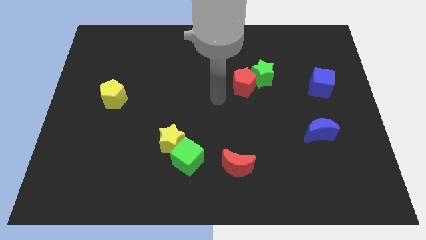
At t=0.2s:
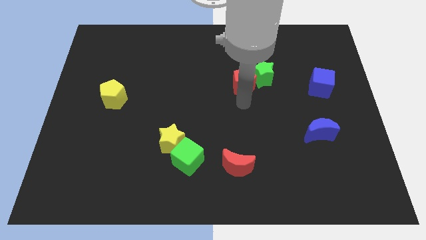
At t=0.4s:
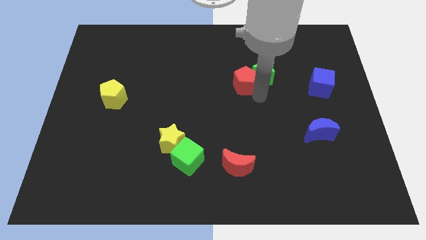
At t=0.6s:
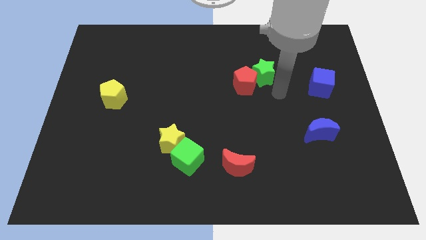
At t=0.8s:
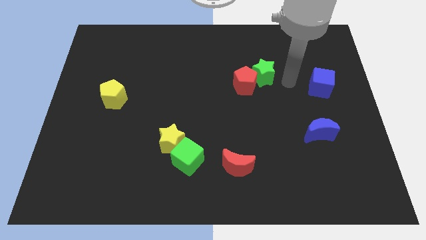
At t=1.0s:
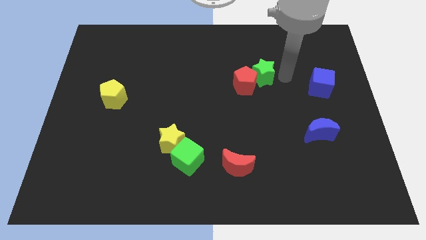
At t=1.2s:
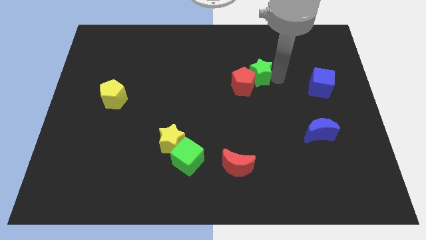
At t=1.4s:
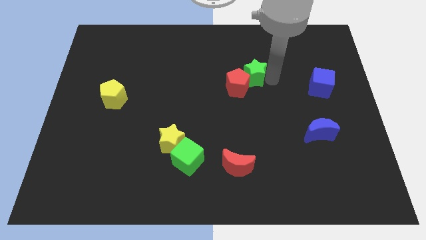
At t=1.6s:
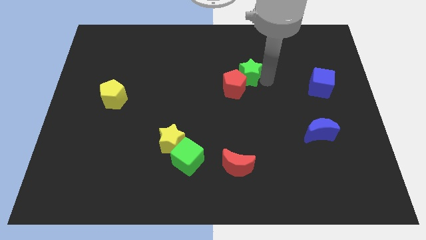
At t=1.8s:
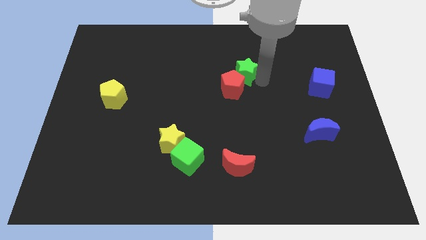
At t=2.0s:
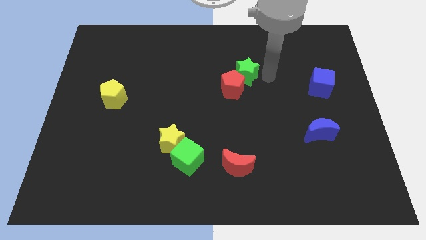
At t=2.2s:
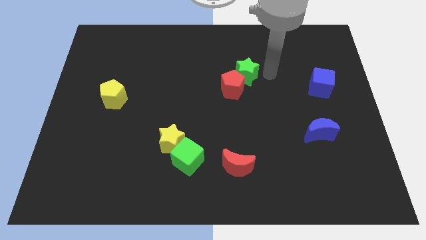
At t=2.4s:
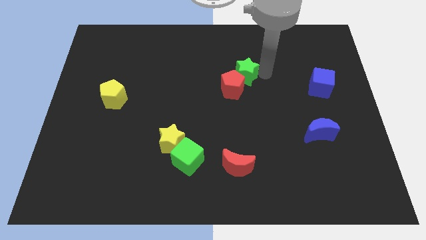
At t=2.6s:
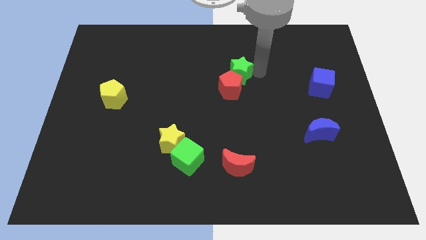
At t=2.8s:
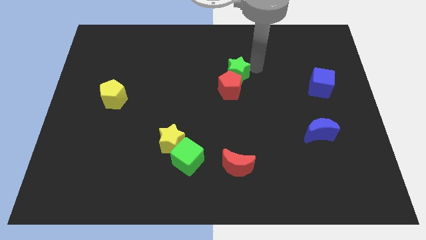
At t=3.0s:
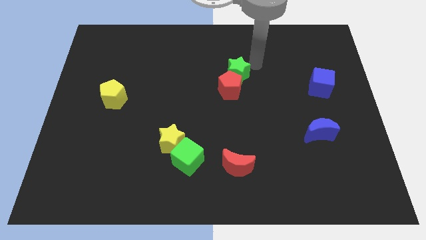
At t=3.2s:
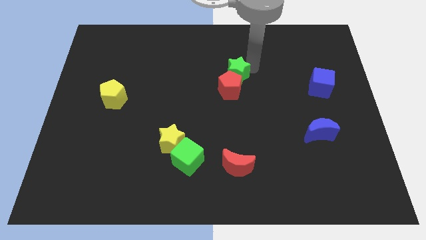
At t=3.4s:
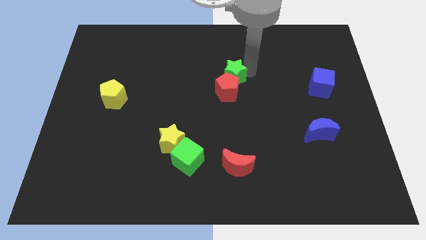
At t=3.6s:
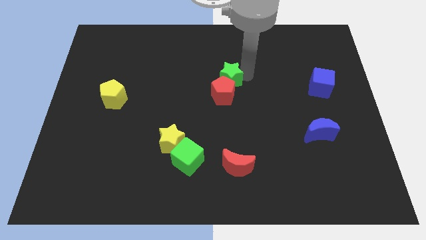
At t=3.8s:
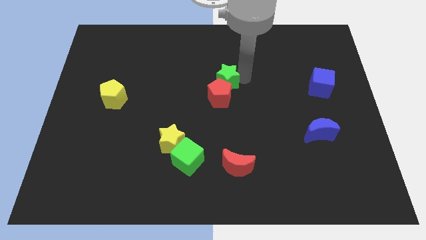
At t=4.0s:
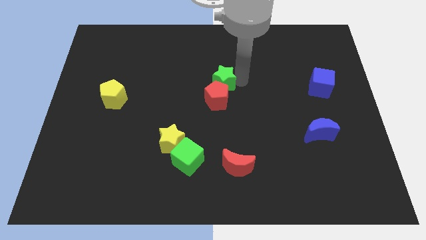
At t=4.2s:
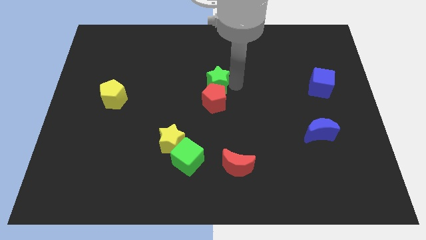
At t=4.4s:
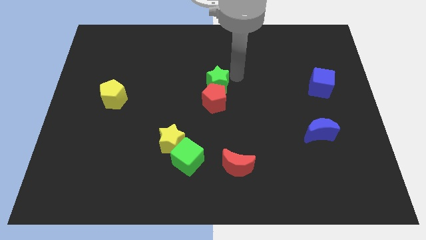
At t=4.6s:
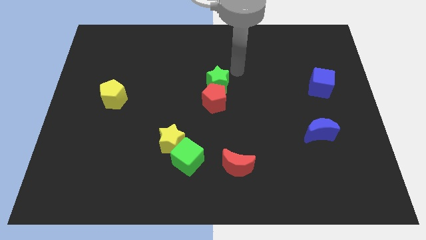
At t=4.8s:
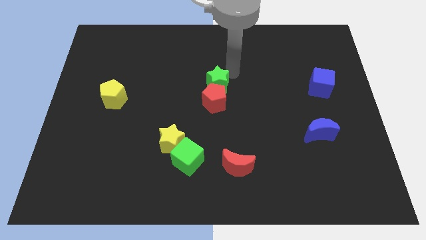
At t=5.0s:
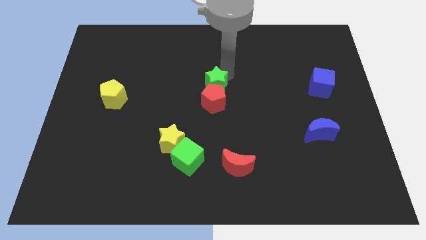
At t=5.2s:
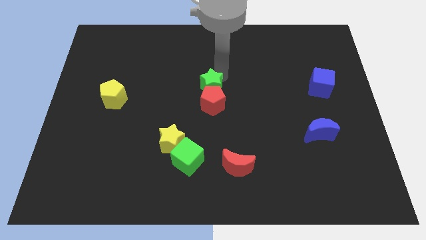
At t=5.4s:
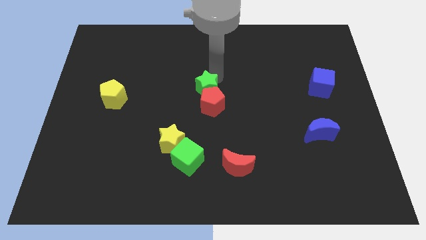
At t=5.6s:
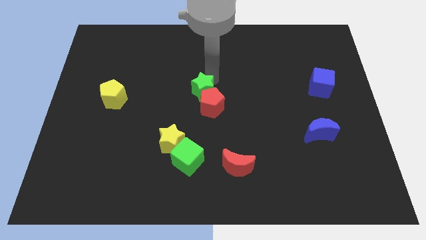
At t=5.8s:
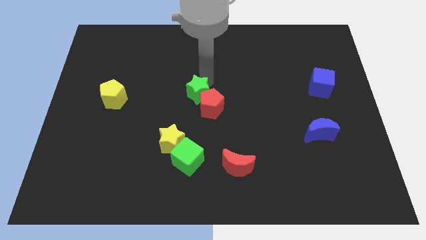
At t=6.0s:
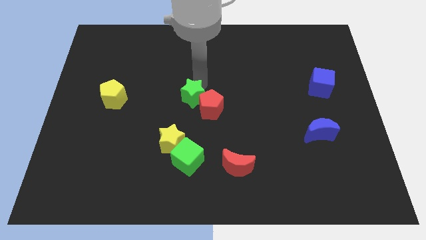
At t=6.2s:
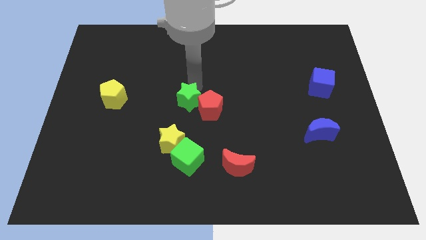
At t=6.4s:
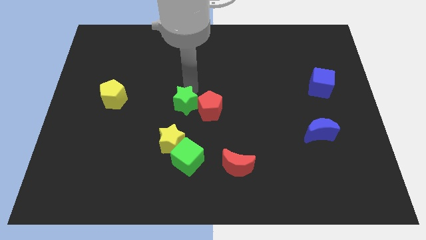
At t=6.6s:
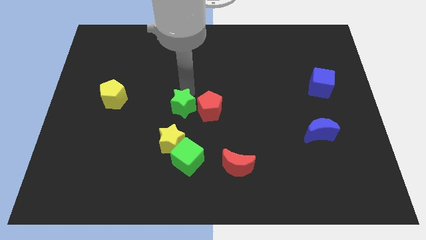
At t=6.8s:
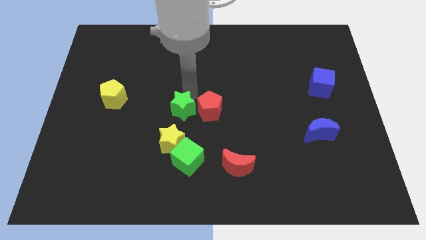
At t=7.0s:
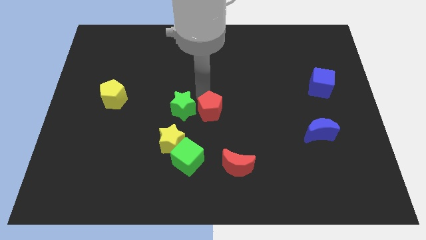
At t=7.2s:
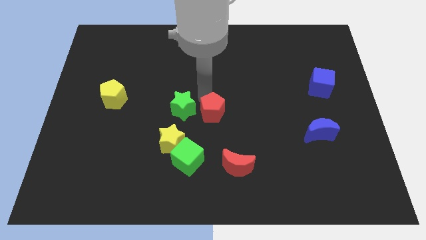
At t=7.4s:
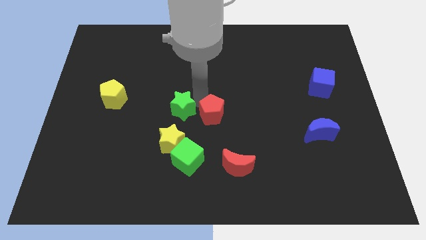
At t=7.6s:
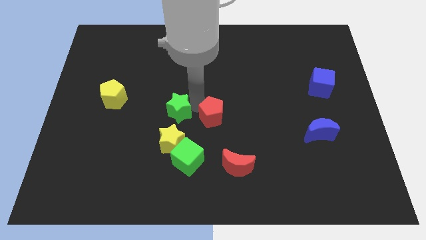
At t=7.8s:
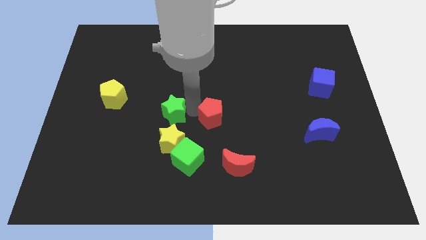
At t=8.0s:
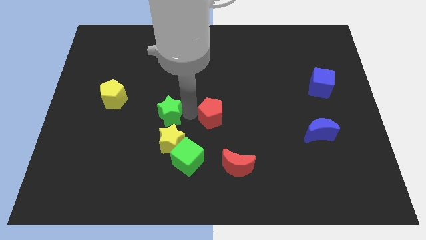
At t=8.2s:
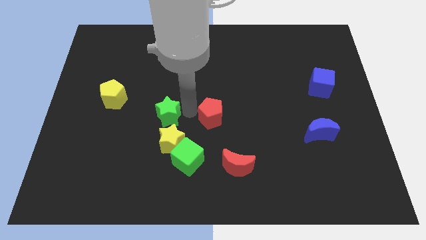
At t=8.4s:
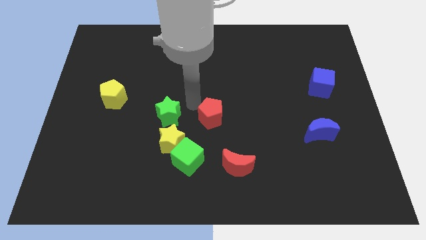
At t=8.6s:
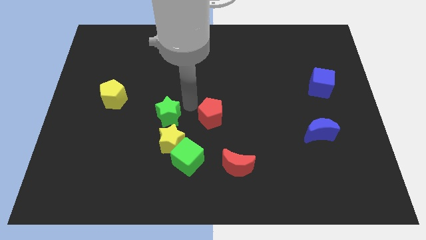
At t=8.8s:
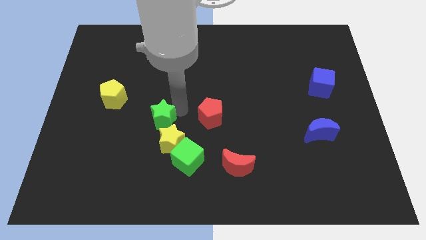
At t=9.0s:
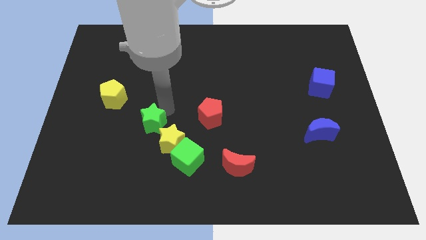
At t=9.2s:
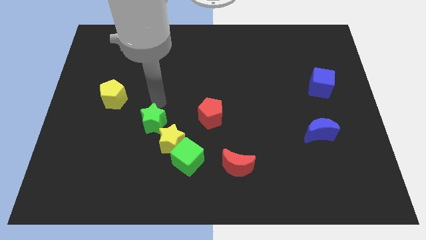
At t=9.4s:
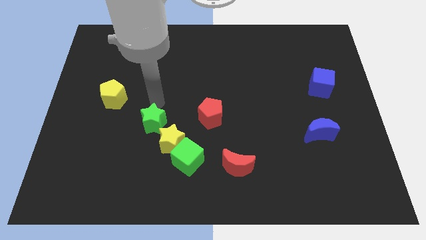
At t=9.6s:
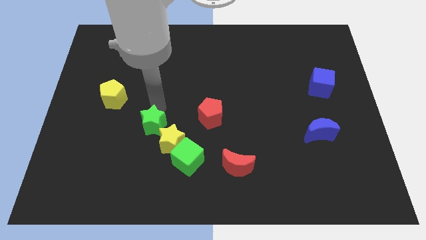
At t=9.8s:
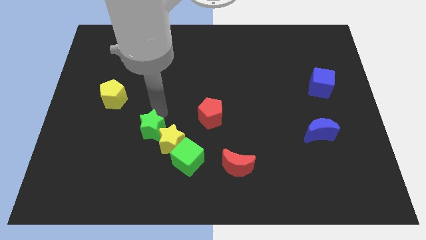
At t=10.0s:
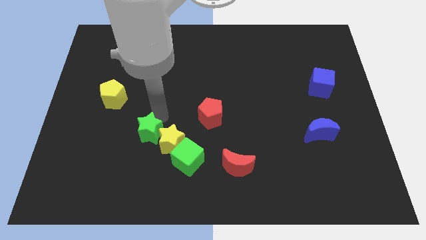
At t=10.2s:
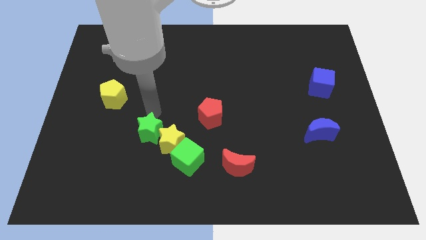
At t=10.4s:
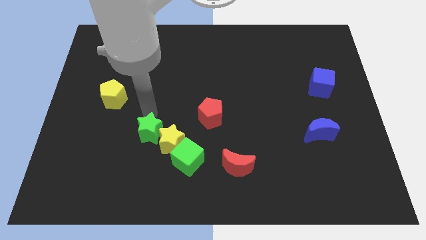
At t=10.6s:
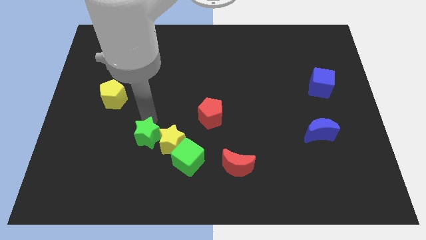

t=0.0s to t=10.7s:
slide the green star to the bottom left side of the yellow star

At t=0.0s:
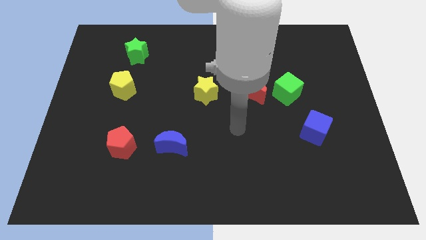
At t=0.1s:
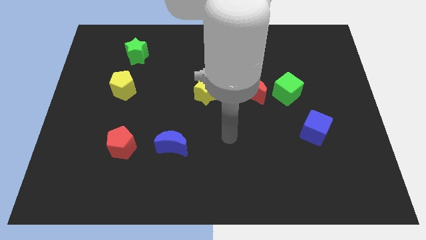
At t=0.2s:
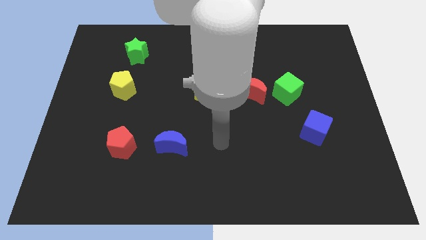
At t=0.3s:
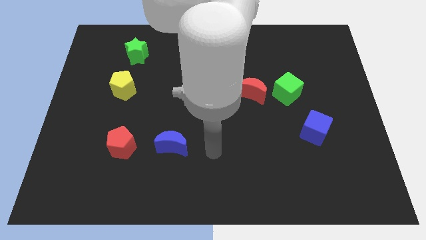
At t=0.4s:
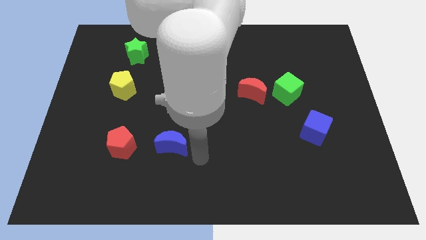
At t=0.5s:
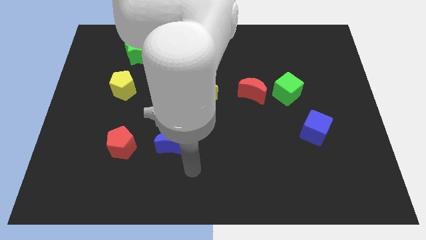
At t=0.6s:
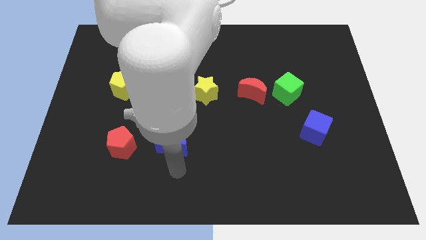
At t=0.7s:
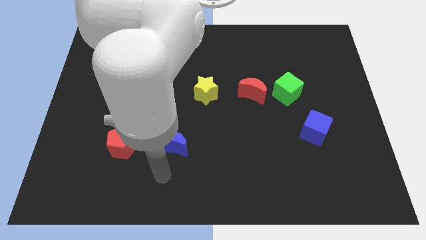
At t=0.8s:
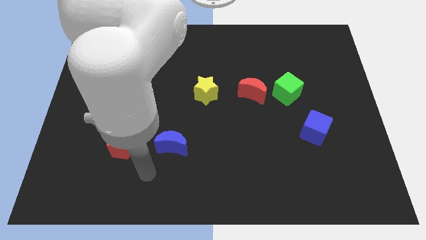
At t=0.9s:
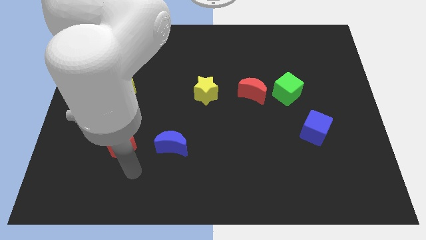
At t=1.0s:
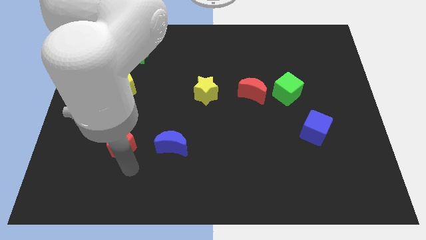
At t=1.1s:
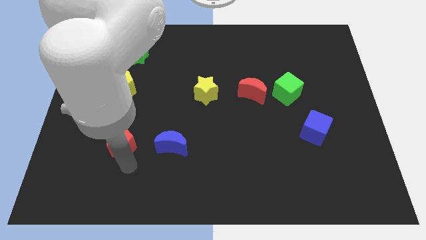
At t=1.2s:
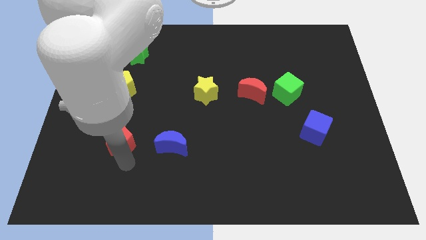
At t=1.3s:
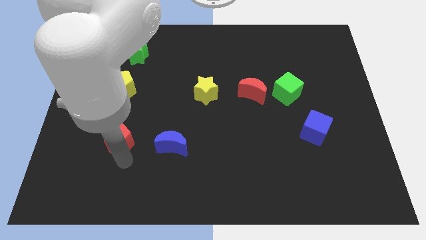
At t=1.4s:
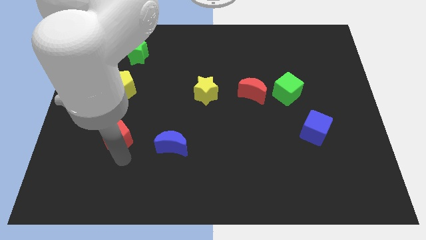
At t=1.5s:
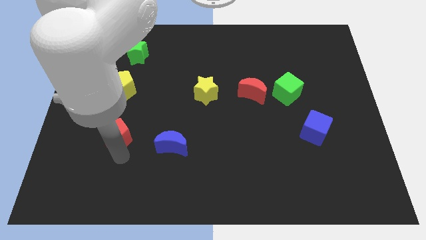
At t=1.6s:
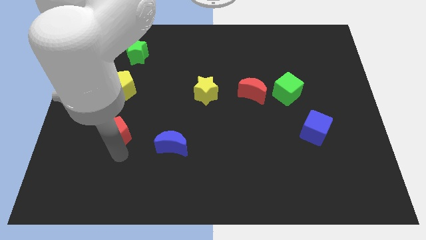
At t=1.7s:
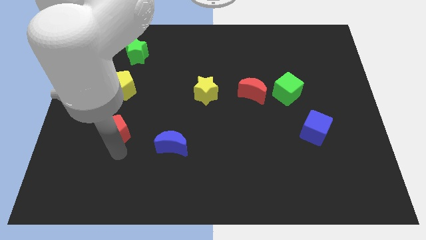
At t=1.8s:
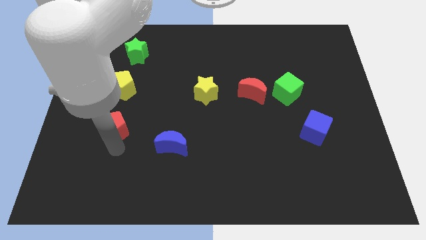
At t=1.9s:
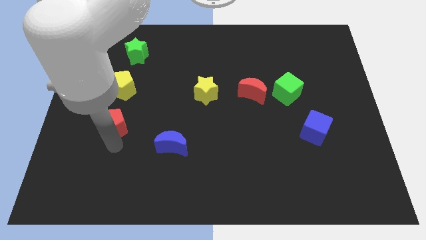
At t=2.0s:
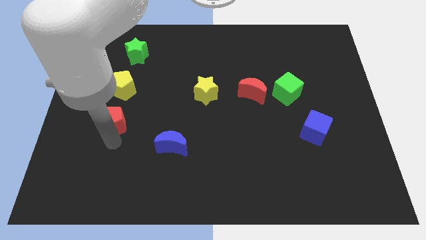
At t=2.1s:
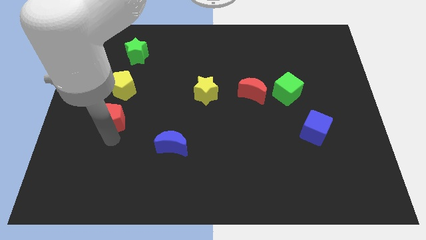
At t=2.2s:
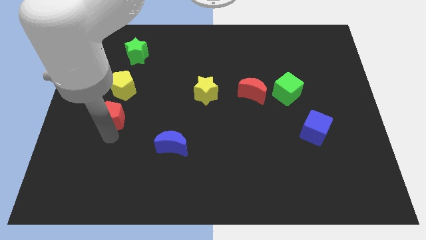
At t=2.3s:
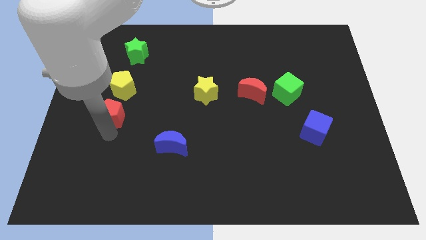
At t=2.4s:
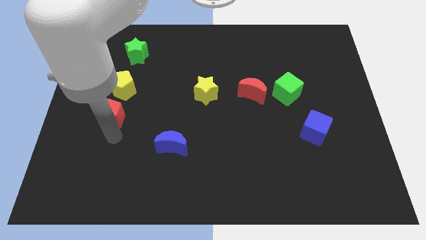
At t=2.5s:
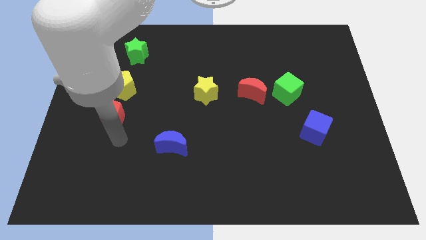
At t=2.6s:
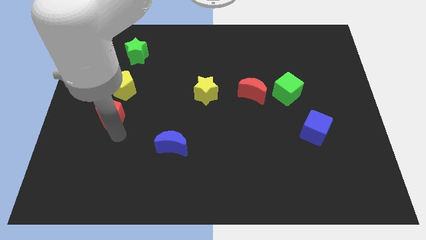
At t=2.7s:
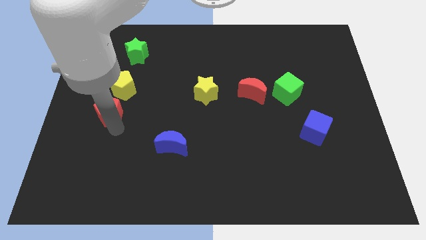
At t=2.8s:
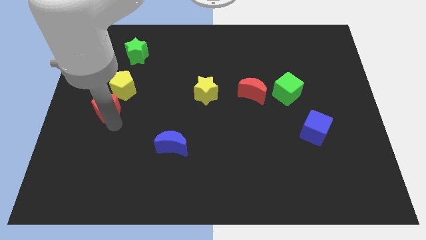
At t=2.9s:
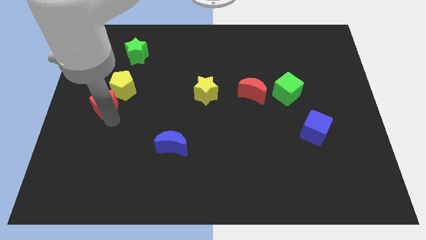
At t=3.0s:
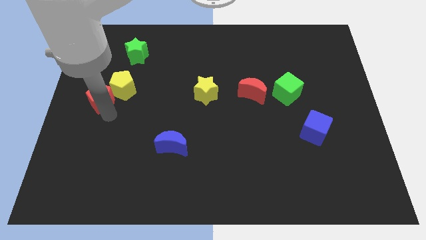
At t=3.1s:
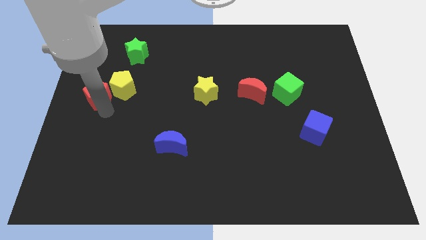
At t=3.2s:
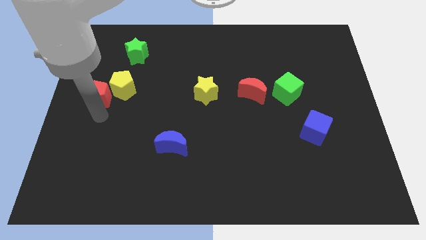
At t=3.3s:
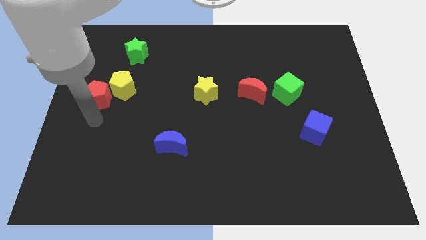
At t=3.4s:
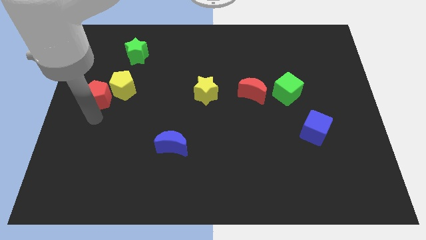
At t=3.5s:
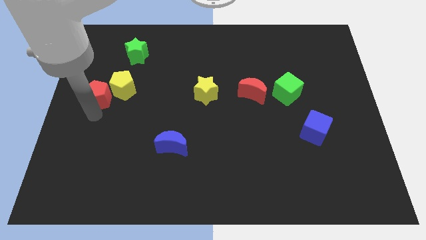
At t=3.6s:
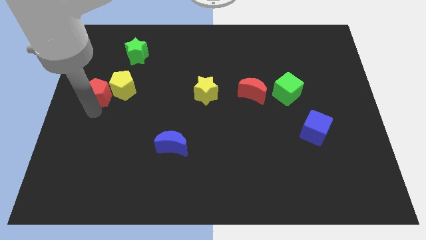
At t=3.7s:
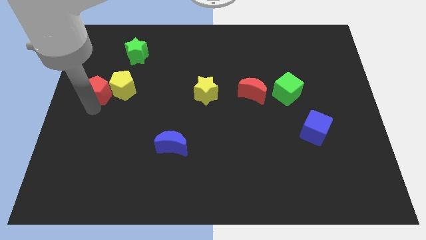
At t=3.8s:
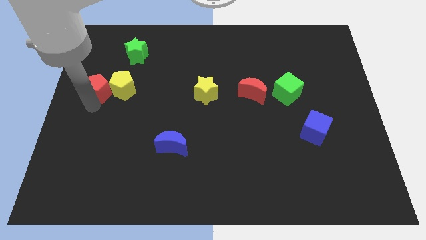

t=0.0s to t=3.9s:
push the red pentagon to the top left of the yellow pentagon
